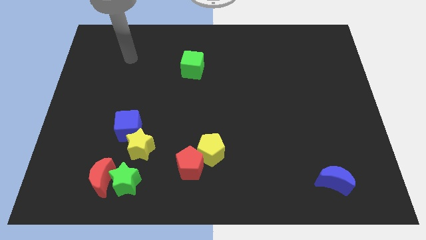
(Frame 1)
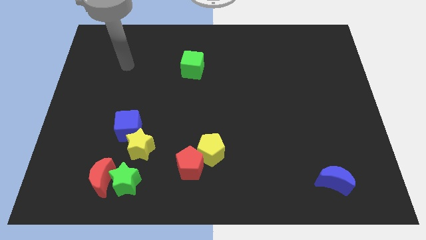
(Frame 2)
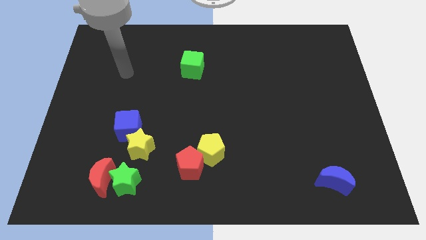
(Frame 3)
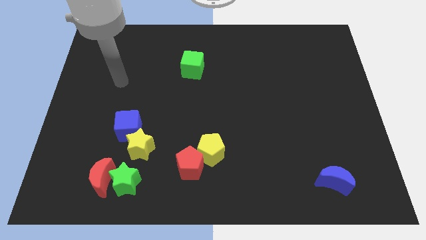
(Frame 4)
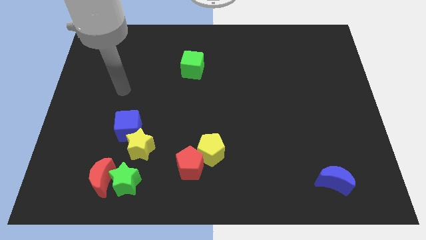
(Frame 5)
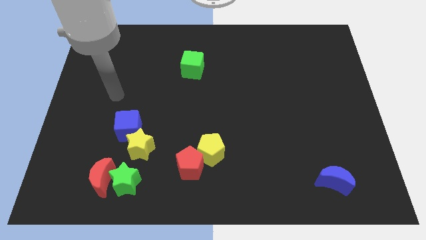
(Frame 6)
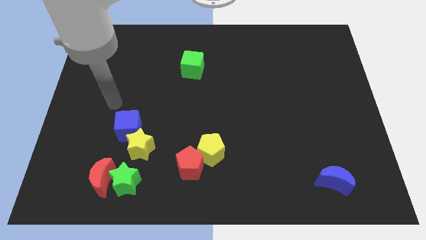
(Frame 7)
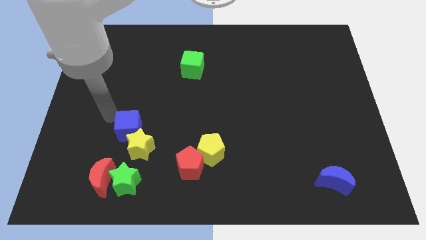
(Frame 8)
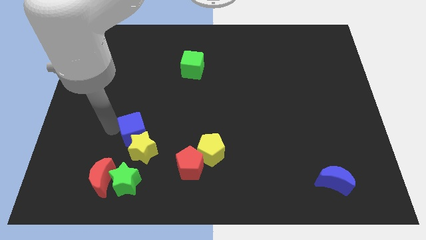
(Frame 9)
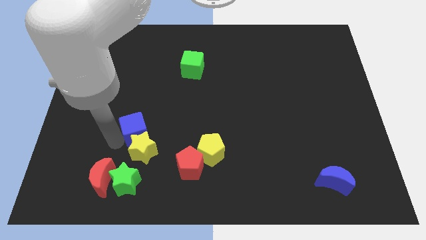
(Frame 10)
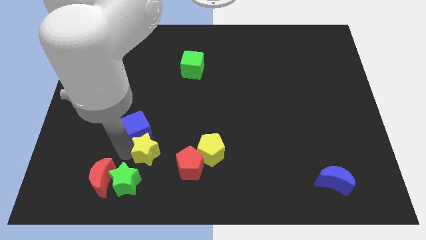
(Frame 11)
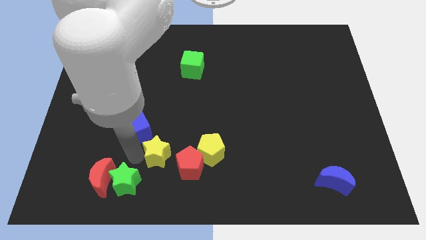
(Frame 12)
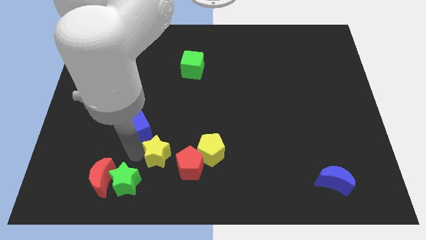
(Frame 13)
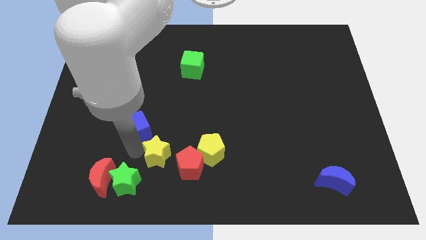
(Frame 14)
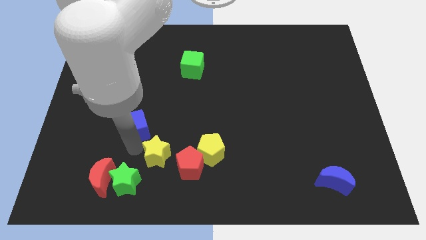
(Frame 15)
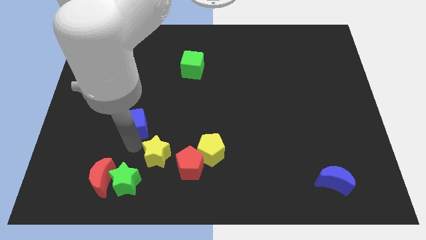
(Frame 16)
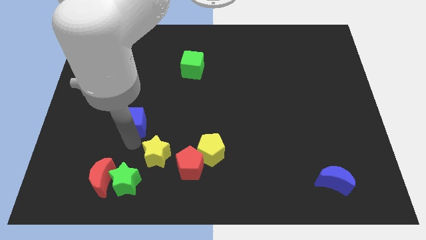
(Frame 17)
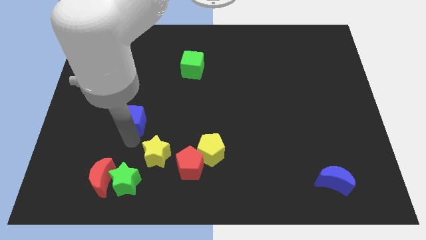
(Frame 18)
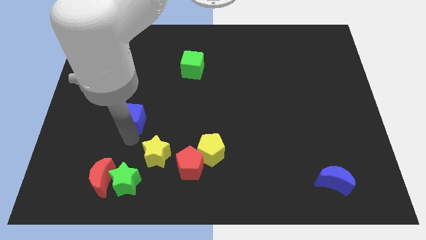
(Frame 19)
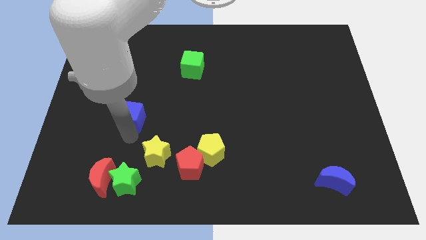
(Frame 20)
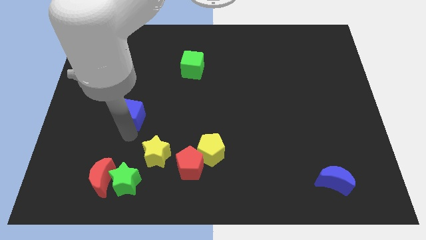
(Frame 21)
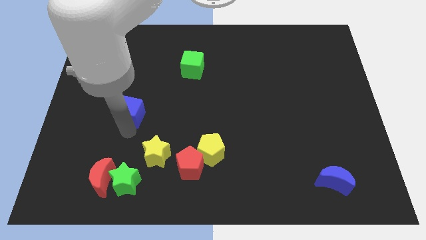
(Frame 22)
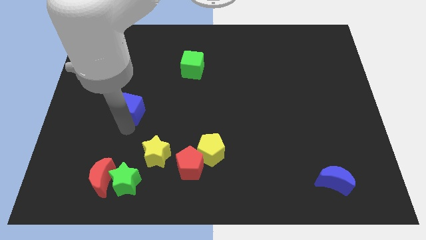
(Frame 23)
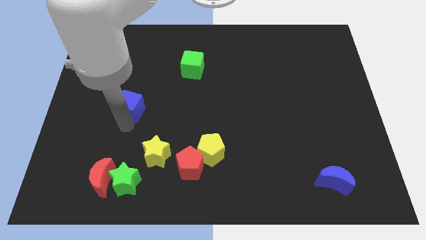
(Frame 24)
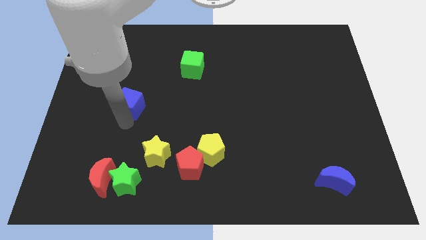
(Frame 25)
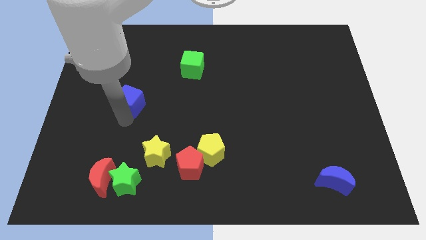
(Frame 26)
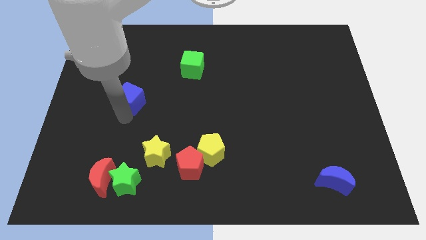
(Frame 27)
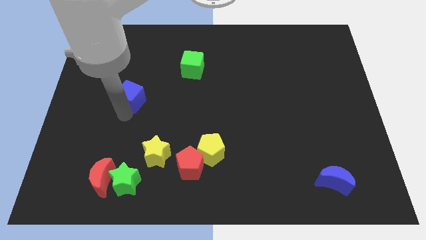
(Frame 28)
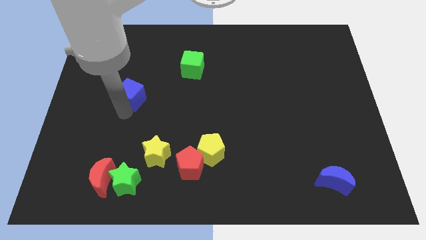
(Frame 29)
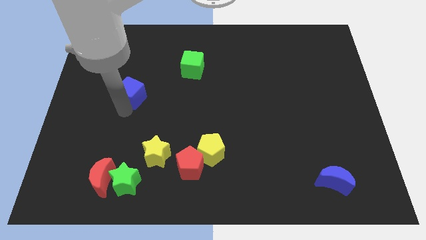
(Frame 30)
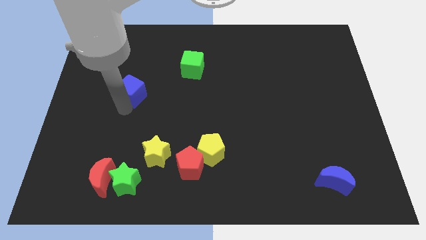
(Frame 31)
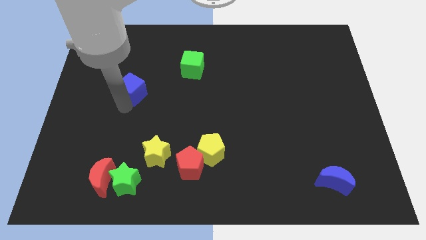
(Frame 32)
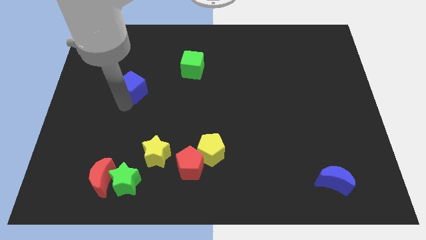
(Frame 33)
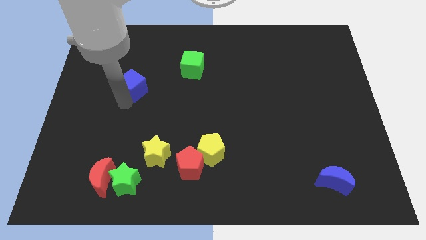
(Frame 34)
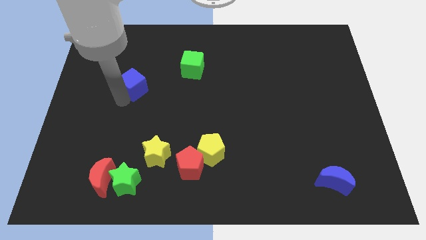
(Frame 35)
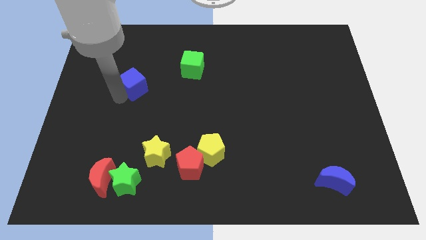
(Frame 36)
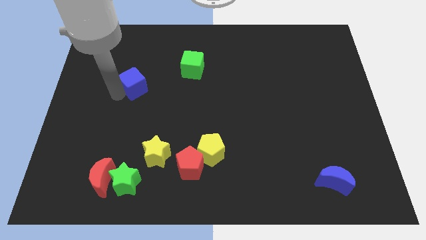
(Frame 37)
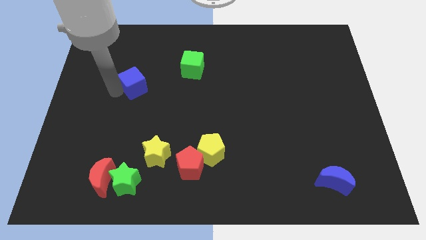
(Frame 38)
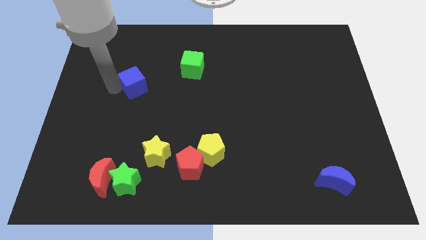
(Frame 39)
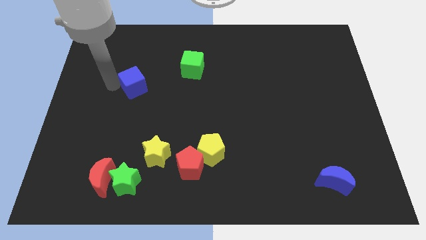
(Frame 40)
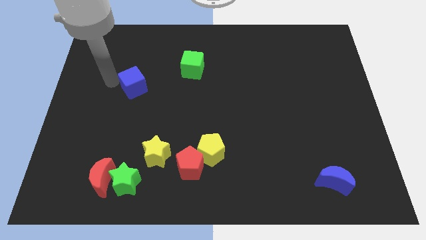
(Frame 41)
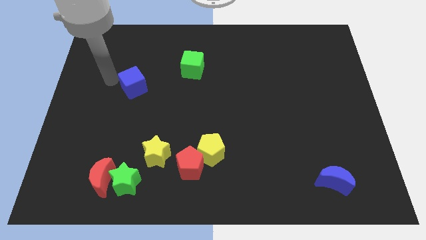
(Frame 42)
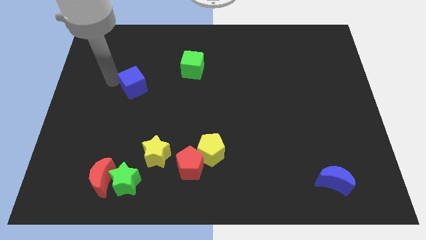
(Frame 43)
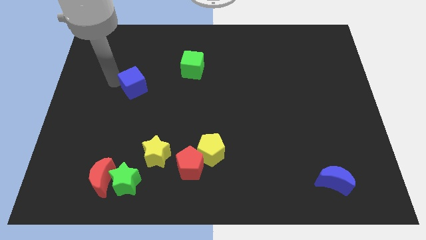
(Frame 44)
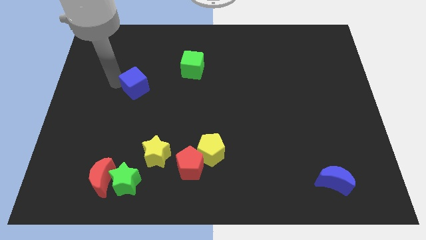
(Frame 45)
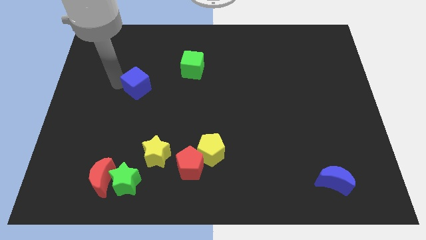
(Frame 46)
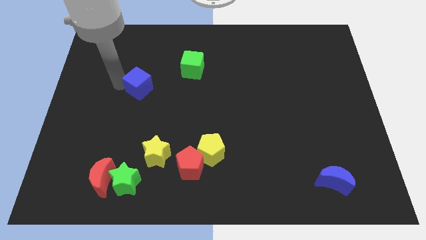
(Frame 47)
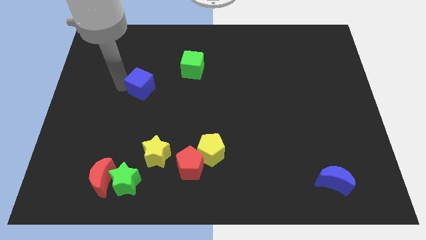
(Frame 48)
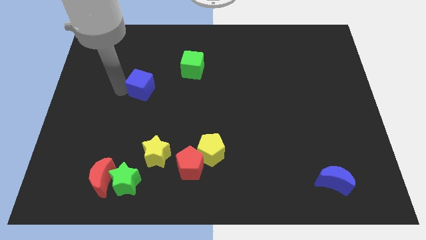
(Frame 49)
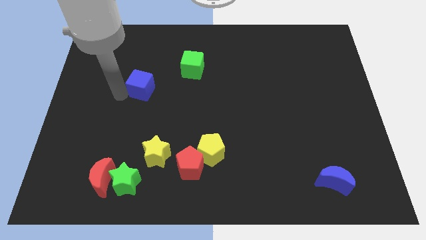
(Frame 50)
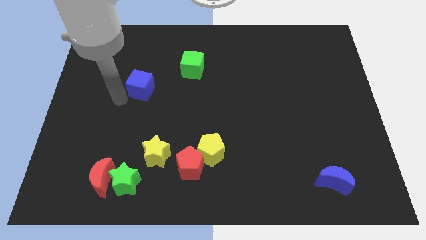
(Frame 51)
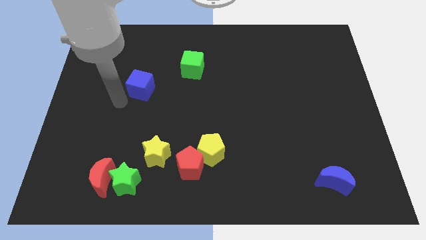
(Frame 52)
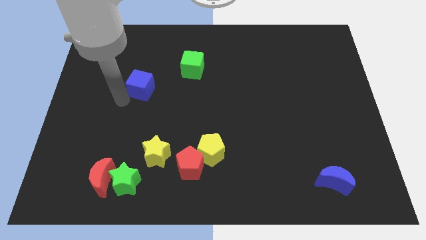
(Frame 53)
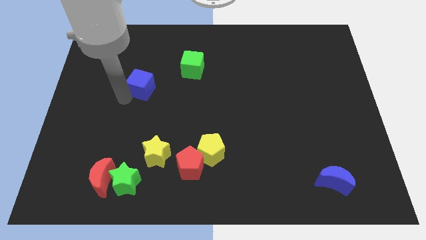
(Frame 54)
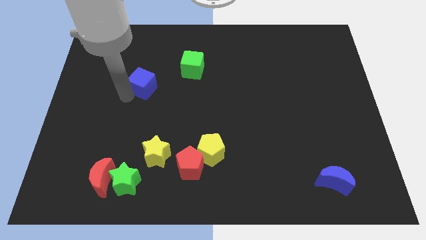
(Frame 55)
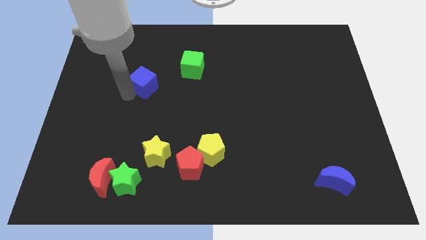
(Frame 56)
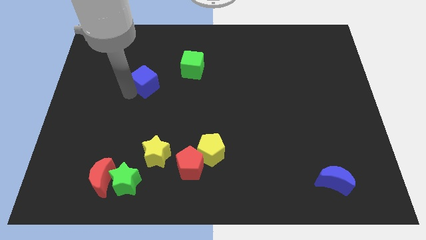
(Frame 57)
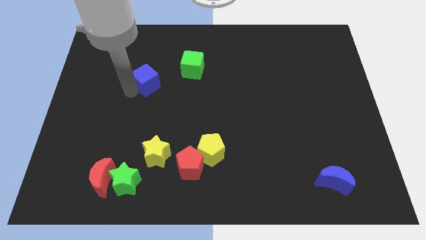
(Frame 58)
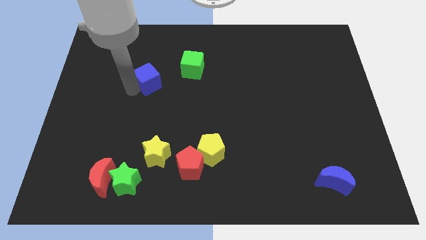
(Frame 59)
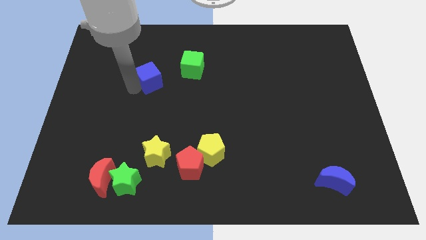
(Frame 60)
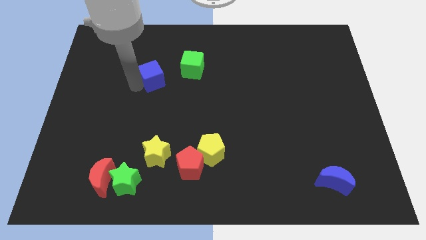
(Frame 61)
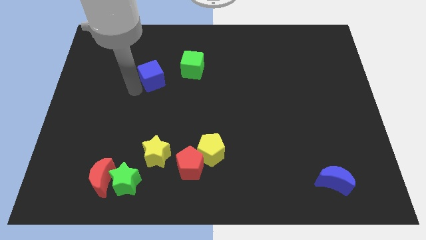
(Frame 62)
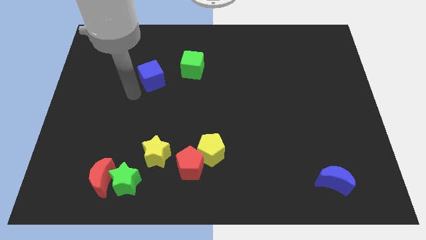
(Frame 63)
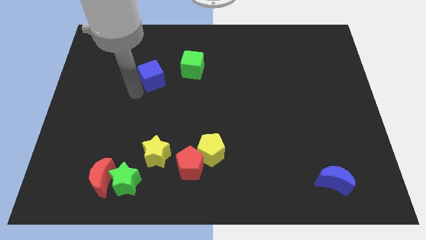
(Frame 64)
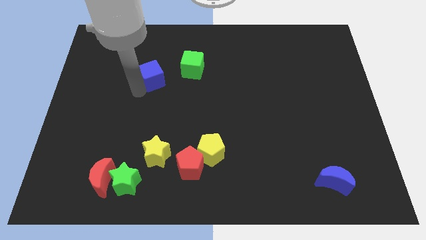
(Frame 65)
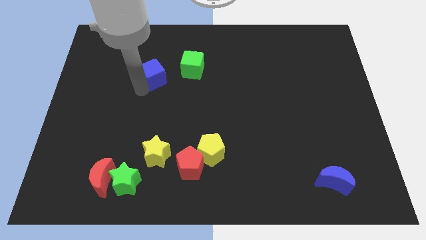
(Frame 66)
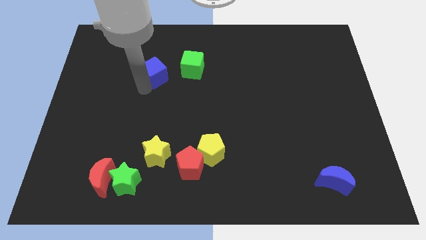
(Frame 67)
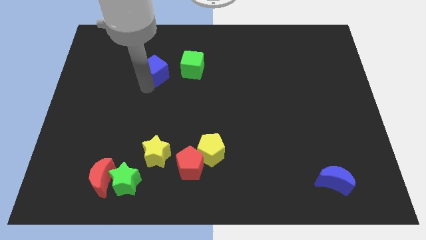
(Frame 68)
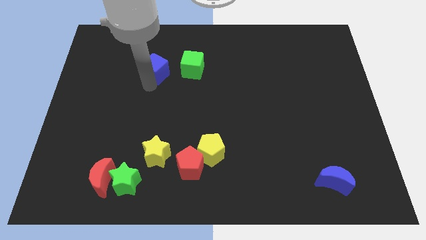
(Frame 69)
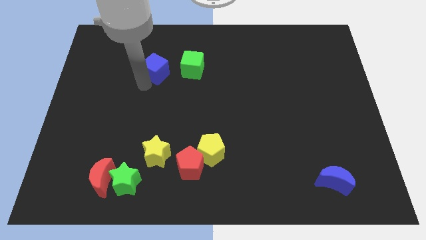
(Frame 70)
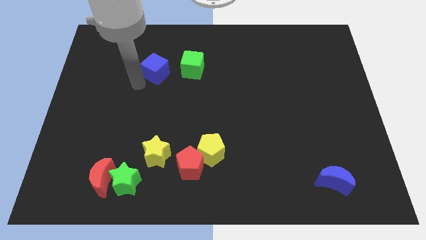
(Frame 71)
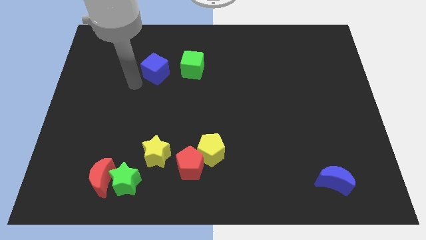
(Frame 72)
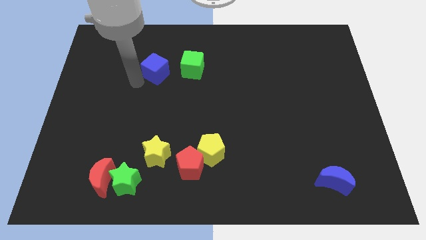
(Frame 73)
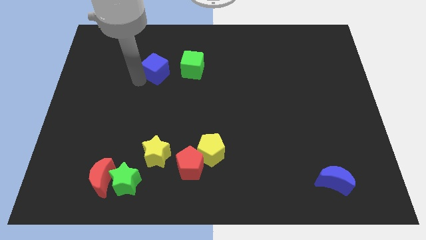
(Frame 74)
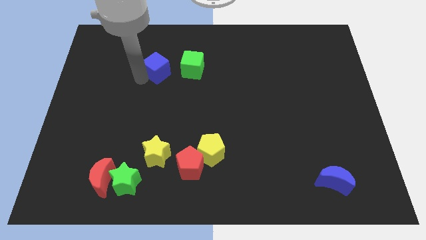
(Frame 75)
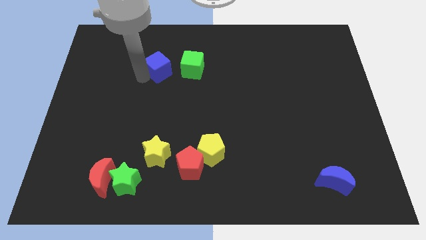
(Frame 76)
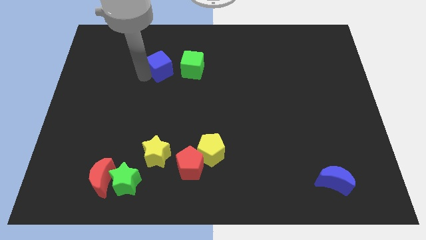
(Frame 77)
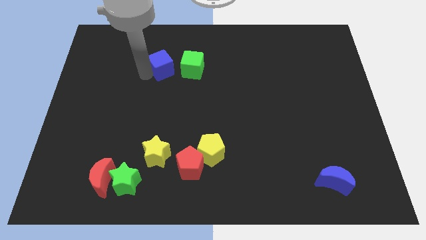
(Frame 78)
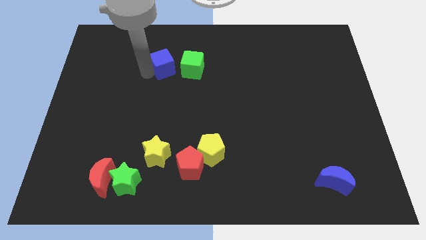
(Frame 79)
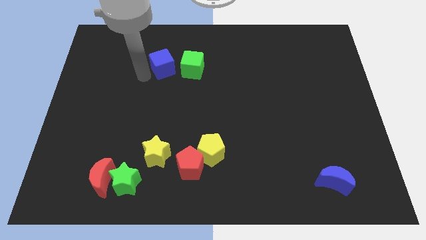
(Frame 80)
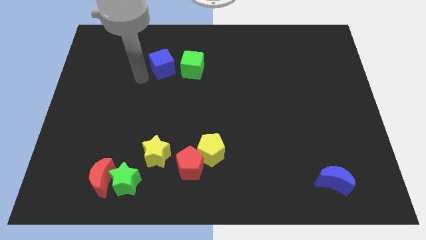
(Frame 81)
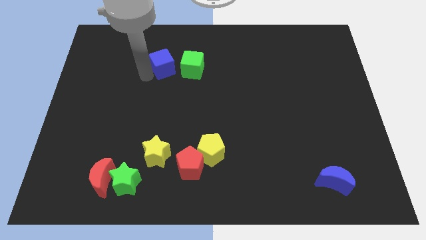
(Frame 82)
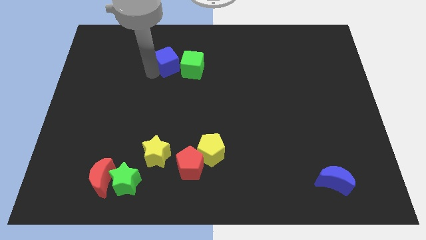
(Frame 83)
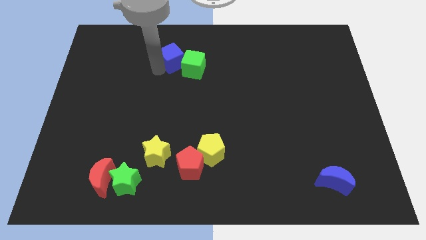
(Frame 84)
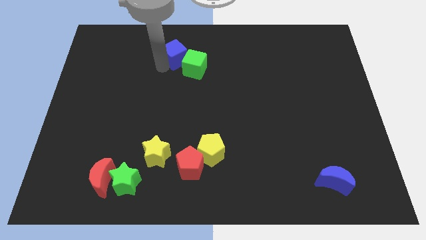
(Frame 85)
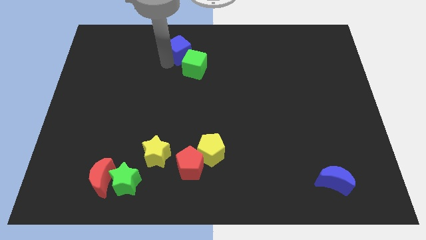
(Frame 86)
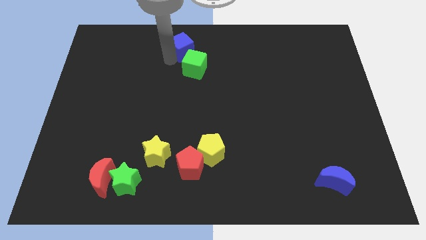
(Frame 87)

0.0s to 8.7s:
push the blue cube to the towards your base
